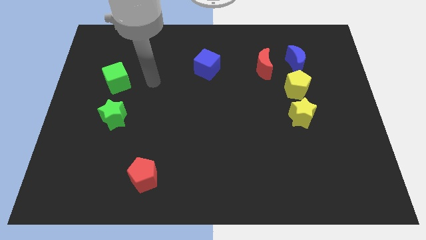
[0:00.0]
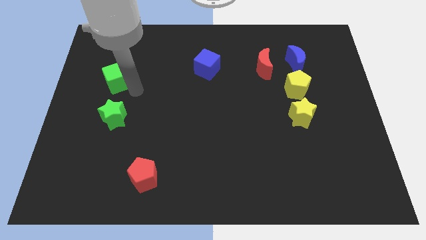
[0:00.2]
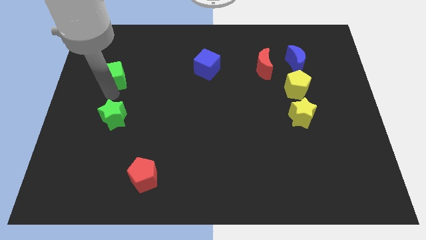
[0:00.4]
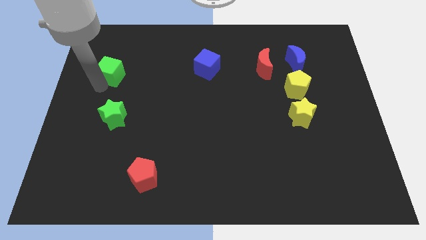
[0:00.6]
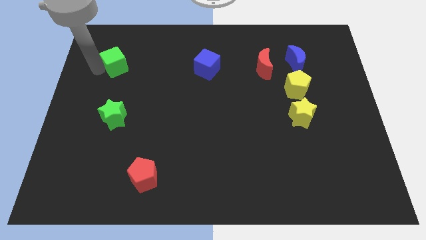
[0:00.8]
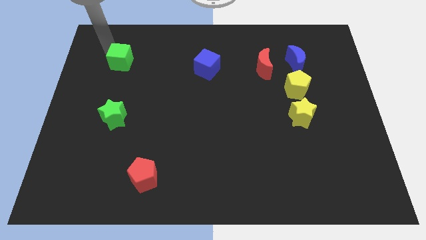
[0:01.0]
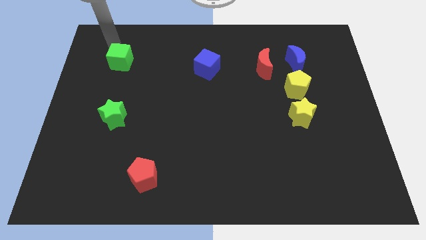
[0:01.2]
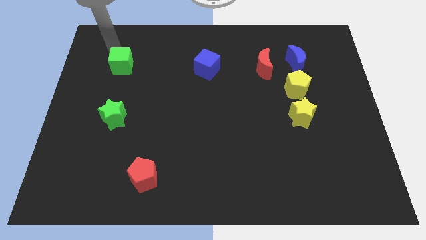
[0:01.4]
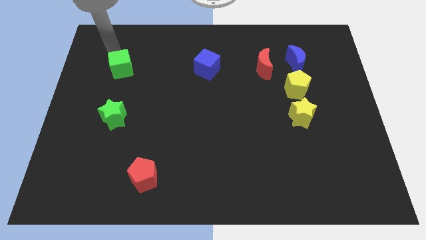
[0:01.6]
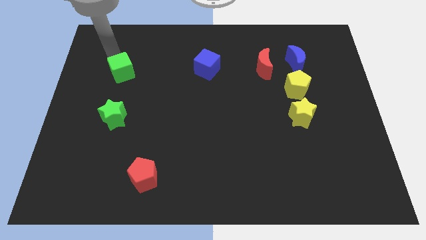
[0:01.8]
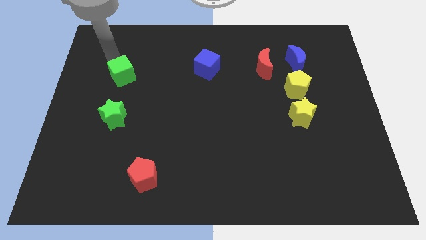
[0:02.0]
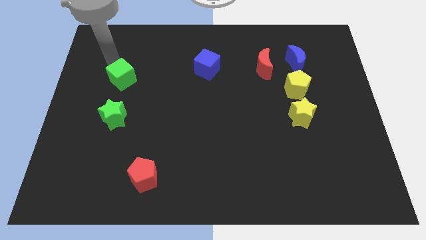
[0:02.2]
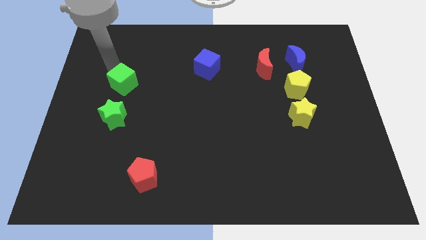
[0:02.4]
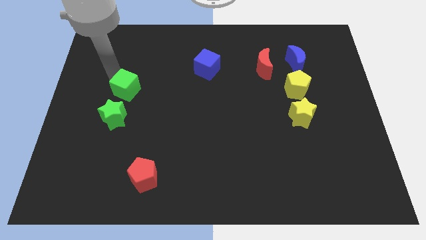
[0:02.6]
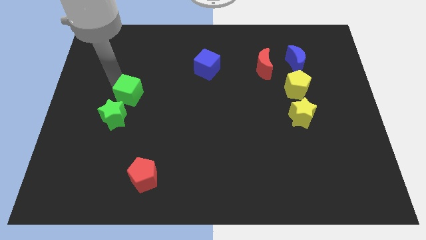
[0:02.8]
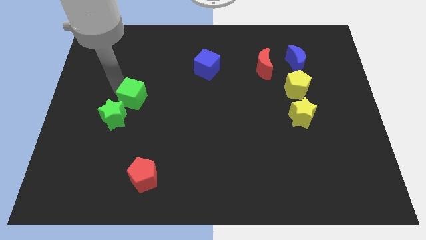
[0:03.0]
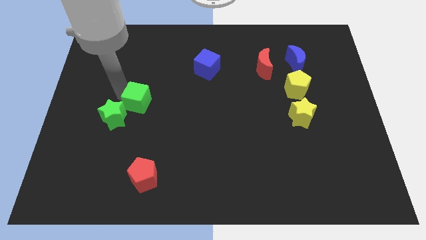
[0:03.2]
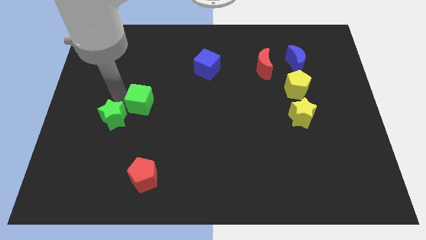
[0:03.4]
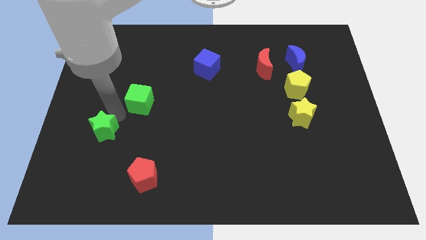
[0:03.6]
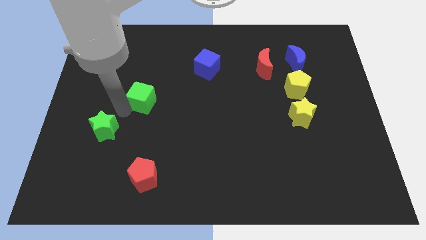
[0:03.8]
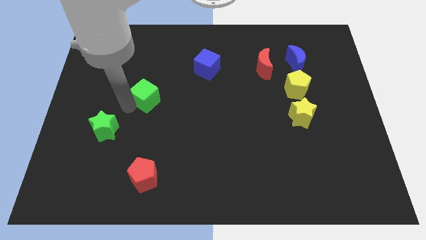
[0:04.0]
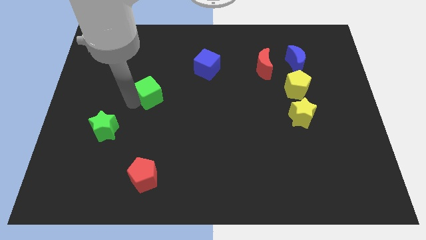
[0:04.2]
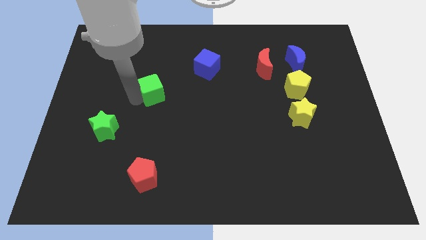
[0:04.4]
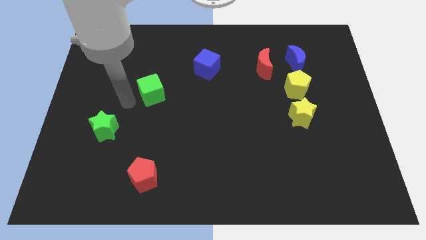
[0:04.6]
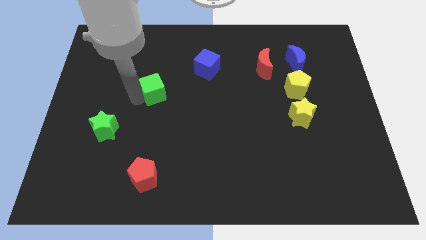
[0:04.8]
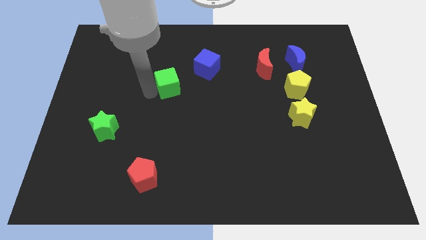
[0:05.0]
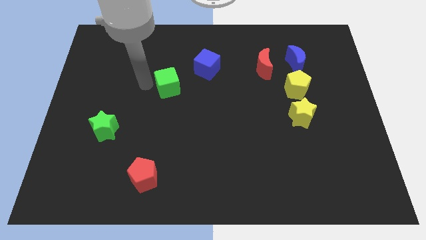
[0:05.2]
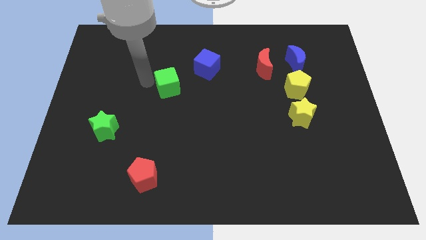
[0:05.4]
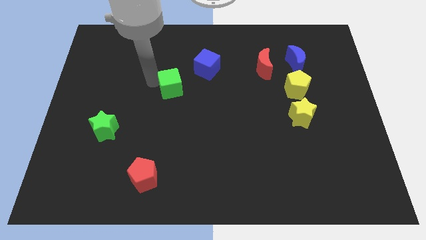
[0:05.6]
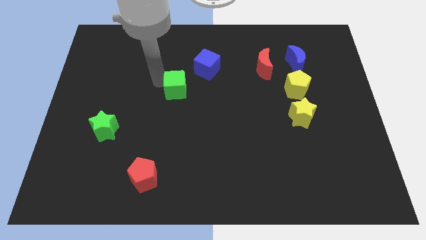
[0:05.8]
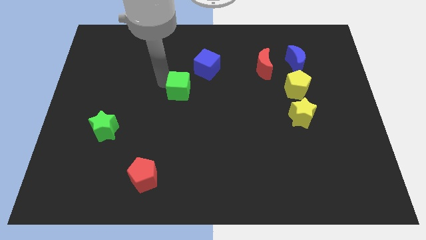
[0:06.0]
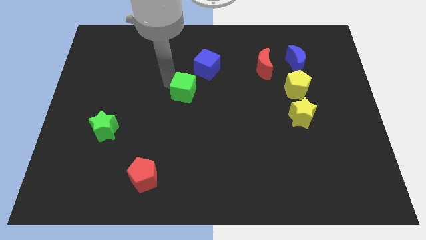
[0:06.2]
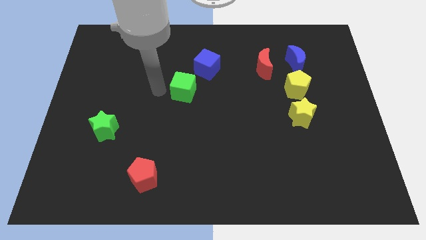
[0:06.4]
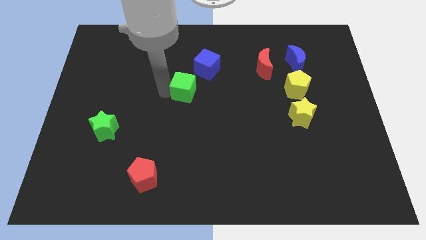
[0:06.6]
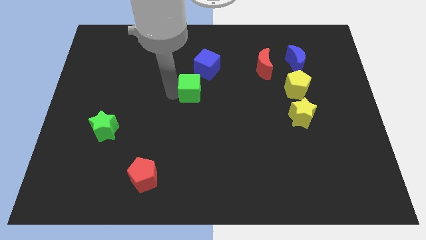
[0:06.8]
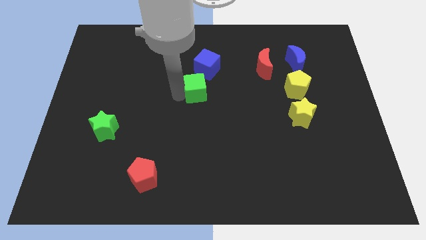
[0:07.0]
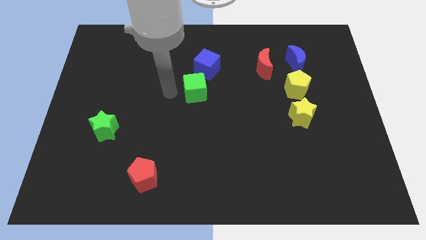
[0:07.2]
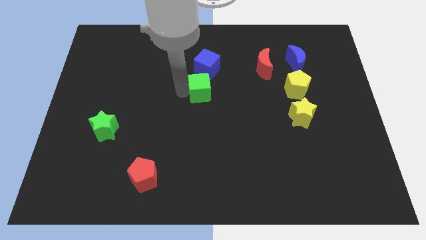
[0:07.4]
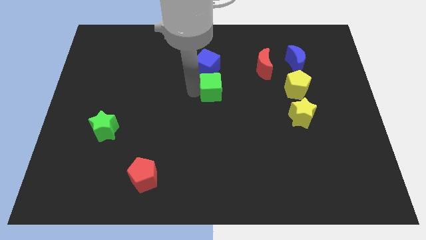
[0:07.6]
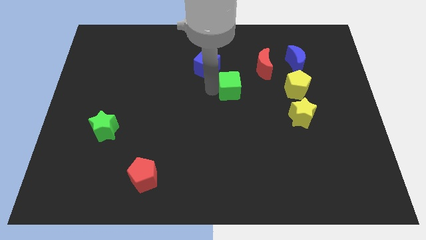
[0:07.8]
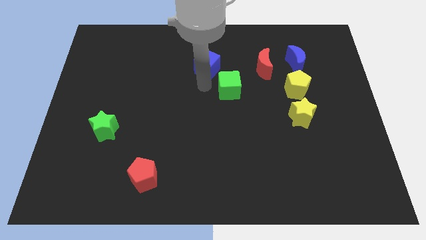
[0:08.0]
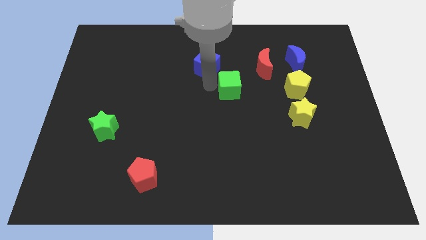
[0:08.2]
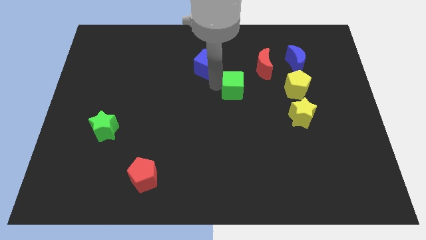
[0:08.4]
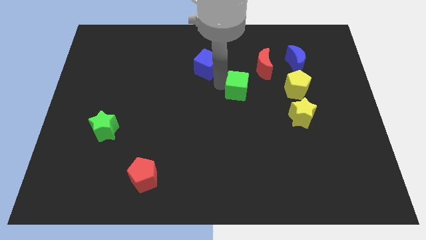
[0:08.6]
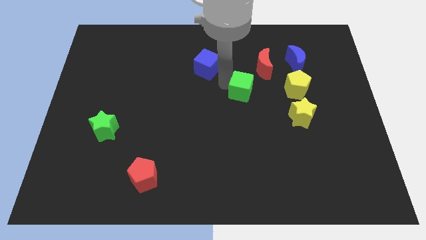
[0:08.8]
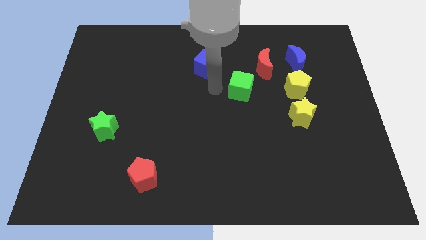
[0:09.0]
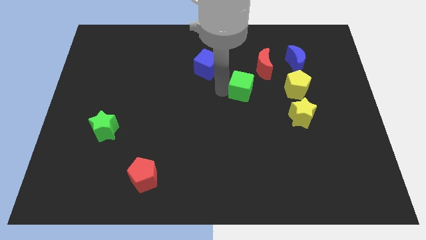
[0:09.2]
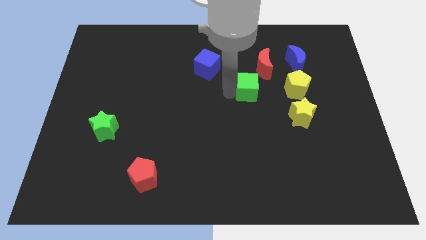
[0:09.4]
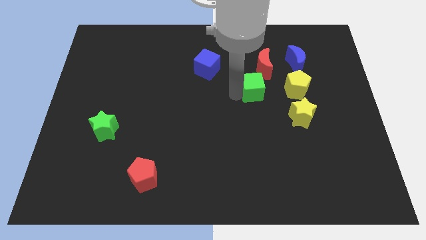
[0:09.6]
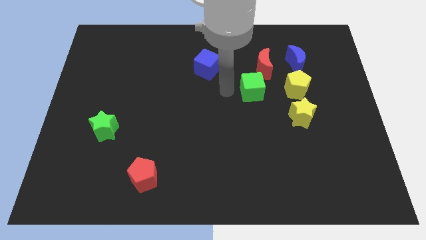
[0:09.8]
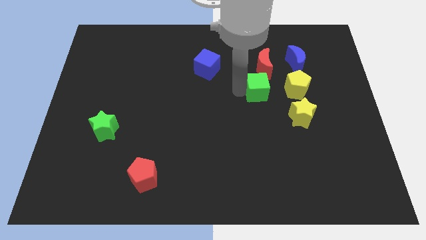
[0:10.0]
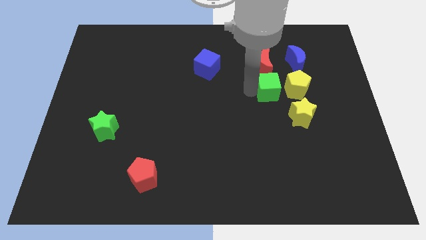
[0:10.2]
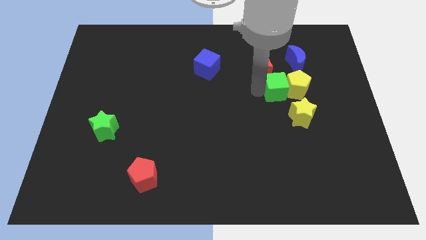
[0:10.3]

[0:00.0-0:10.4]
put the green cube to the yellow pentagon

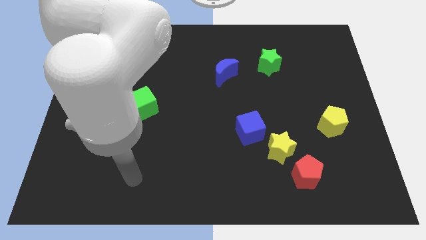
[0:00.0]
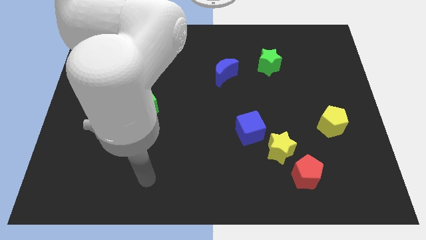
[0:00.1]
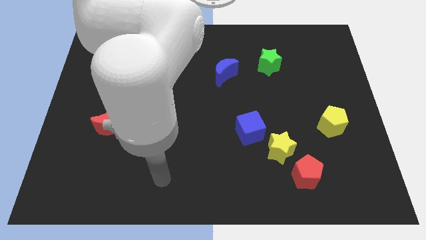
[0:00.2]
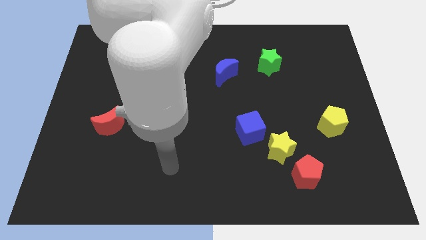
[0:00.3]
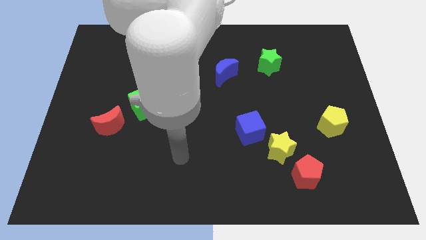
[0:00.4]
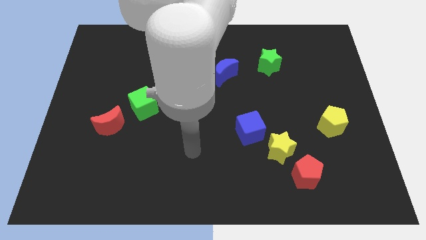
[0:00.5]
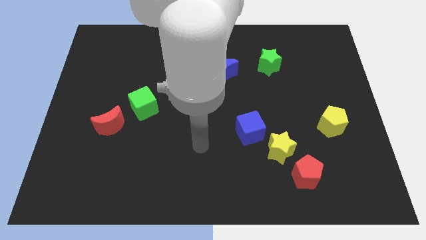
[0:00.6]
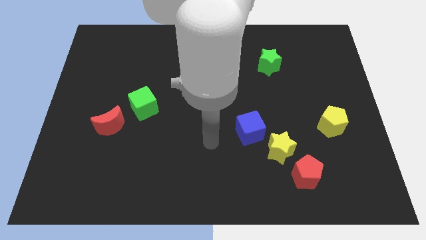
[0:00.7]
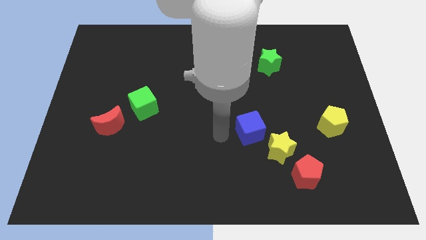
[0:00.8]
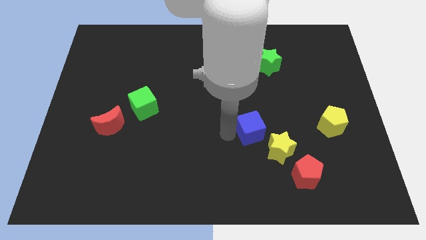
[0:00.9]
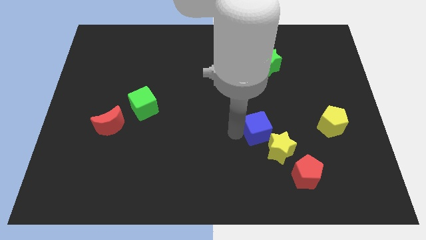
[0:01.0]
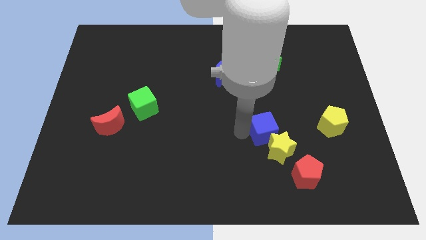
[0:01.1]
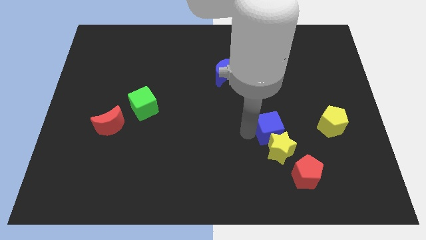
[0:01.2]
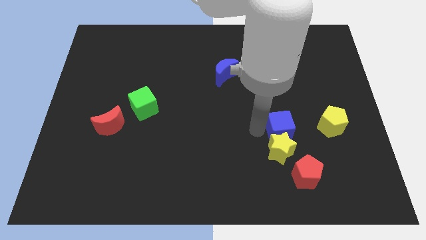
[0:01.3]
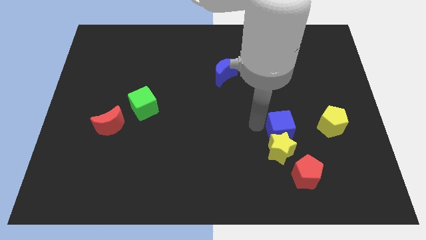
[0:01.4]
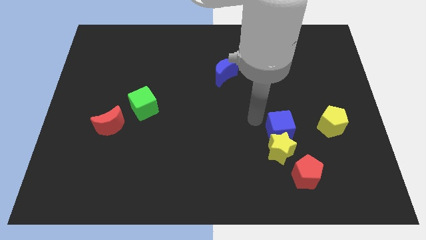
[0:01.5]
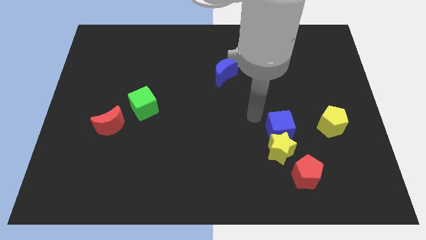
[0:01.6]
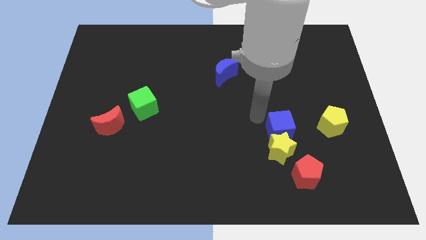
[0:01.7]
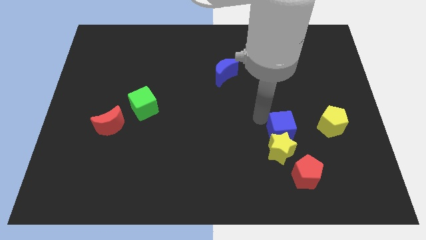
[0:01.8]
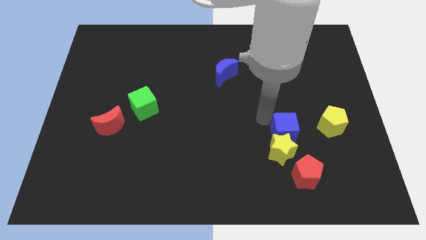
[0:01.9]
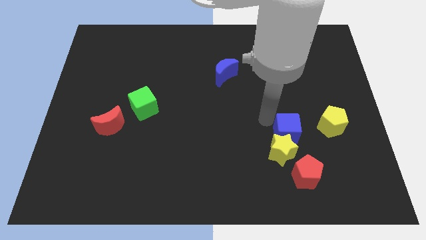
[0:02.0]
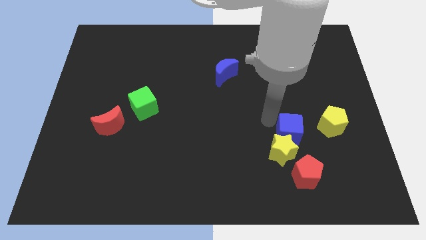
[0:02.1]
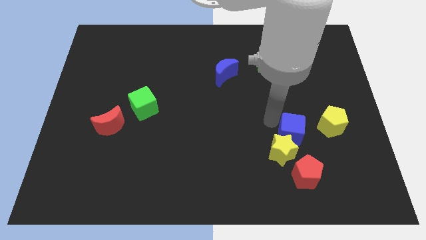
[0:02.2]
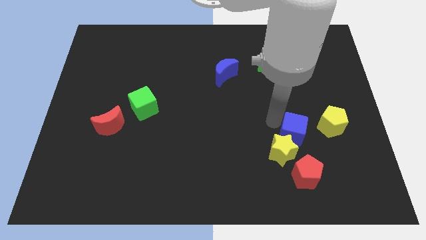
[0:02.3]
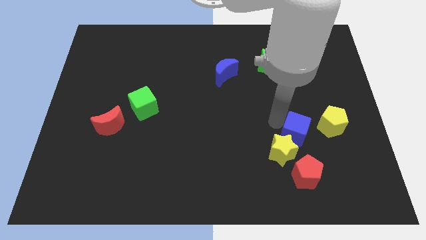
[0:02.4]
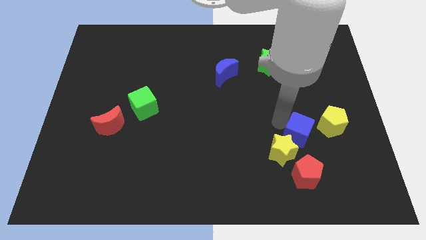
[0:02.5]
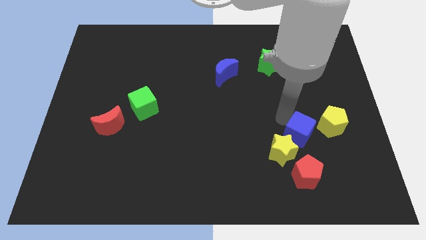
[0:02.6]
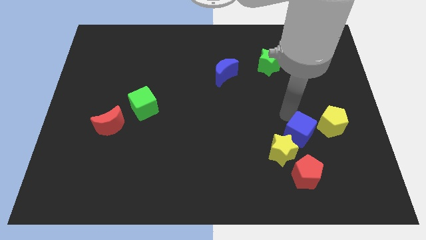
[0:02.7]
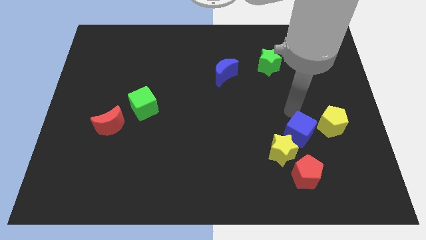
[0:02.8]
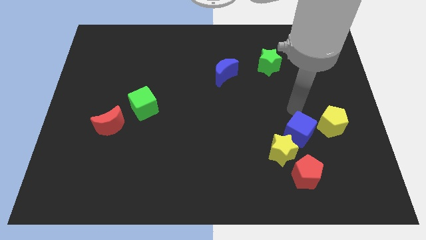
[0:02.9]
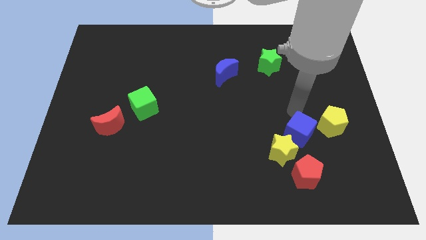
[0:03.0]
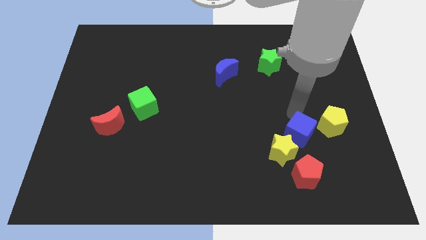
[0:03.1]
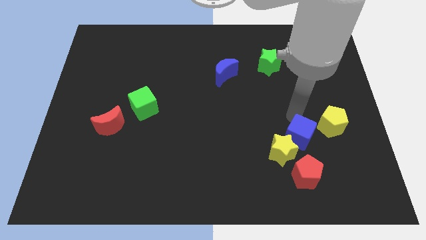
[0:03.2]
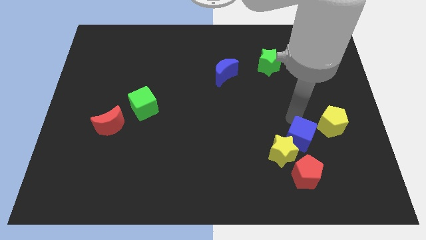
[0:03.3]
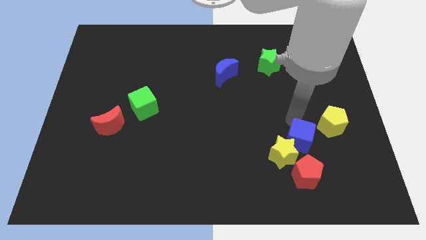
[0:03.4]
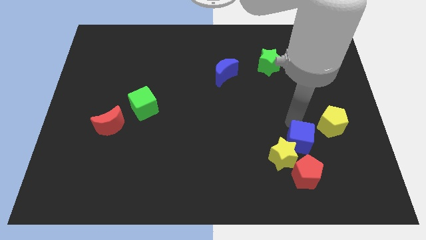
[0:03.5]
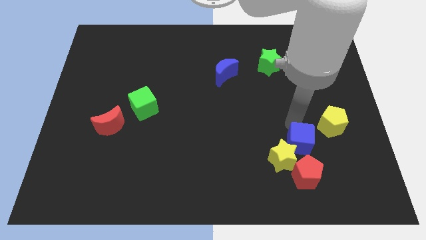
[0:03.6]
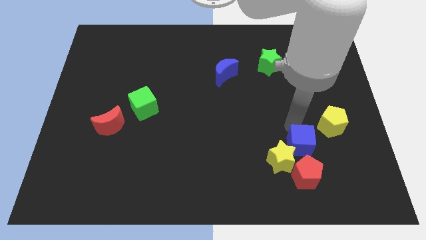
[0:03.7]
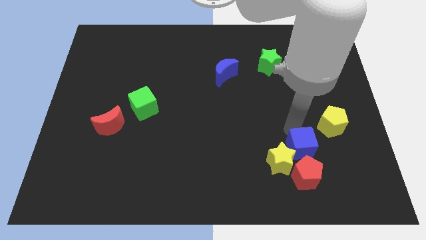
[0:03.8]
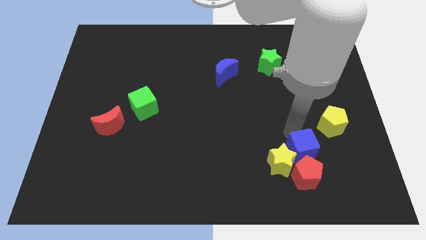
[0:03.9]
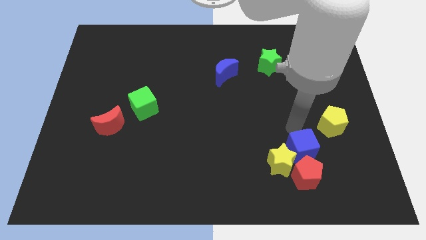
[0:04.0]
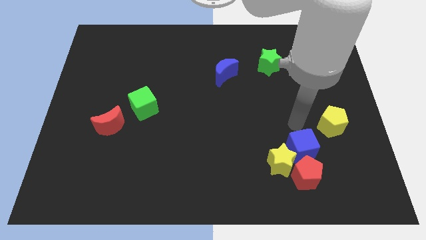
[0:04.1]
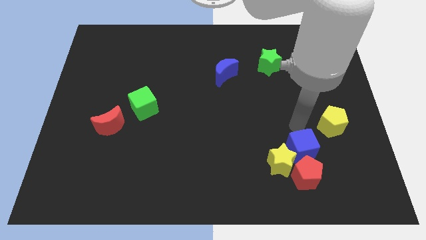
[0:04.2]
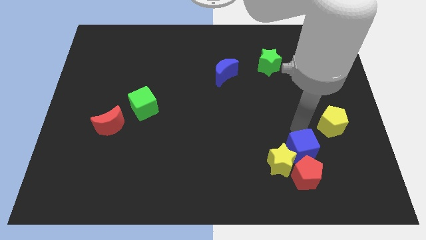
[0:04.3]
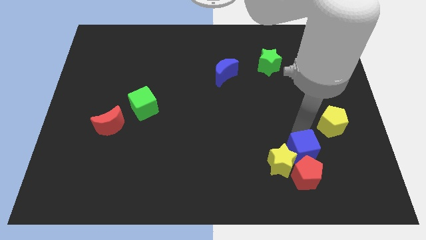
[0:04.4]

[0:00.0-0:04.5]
push the blue cube next to the red pentagon
